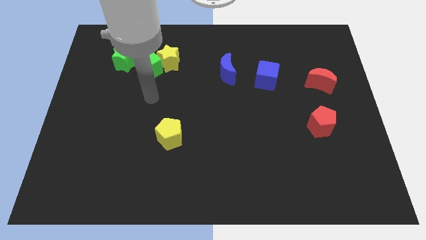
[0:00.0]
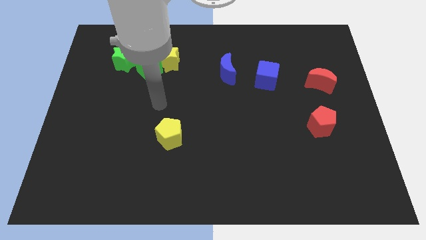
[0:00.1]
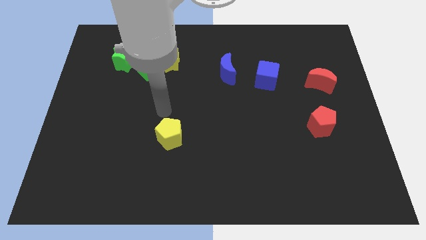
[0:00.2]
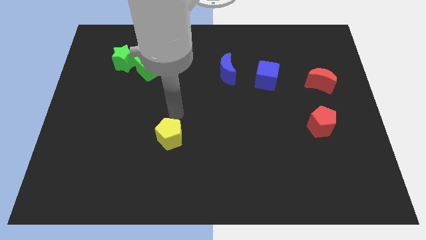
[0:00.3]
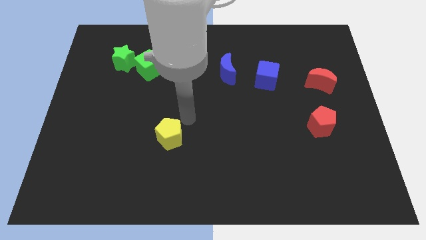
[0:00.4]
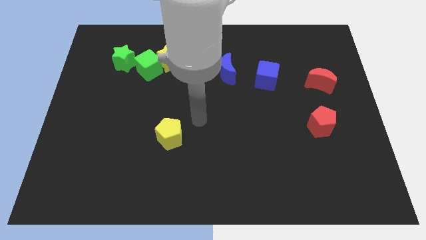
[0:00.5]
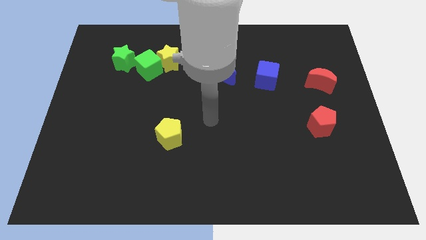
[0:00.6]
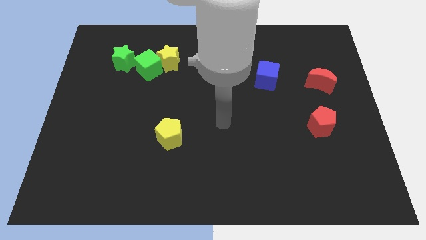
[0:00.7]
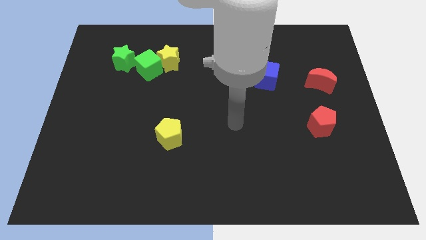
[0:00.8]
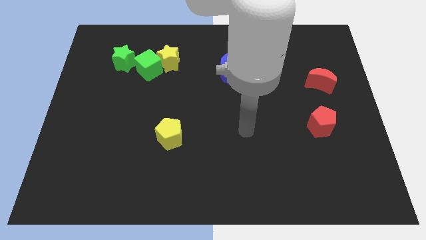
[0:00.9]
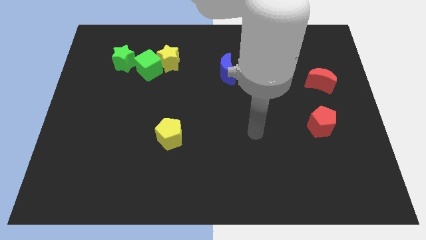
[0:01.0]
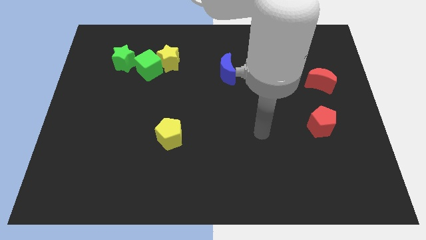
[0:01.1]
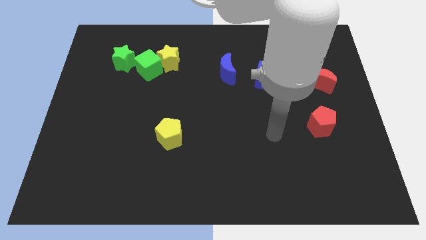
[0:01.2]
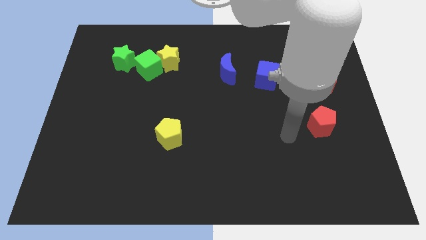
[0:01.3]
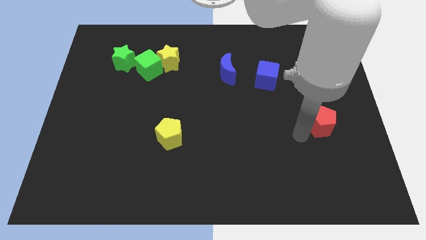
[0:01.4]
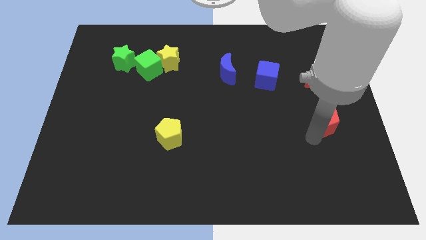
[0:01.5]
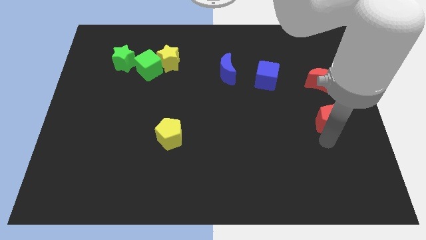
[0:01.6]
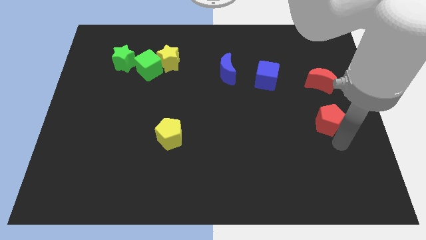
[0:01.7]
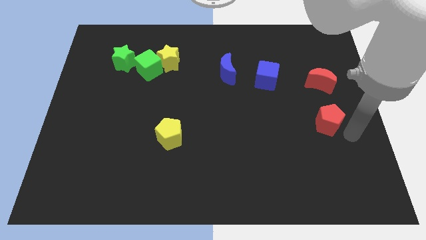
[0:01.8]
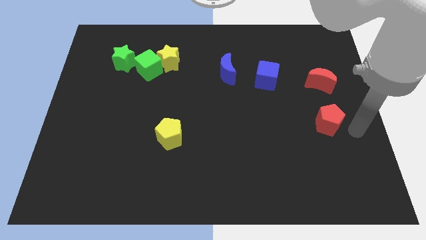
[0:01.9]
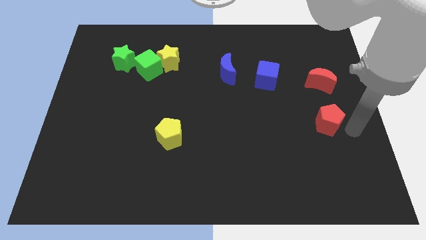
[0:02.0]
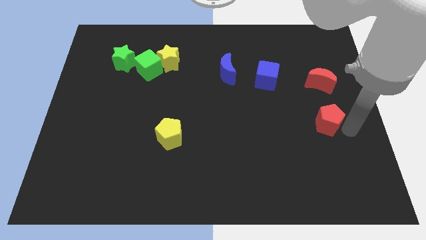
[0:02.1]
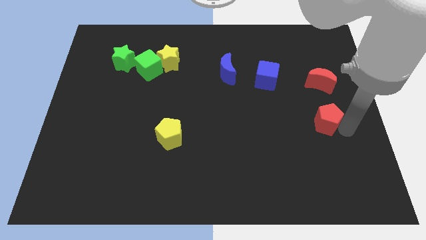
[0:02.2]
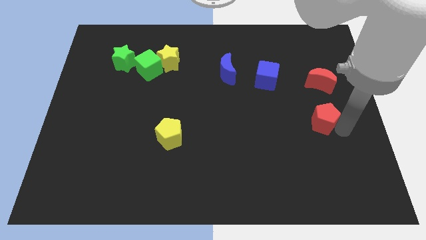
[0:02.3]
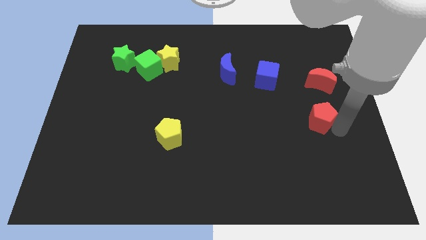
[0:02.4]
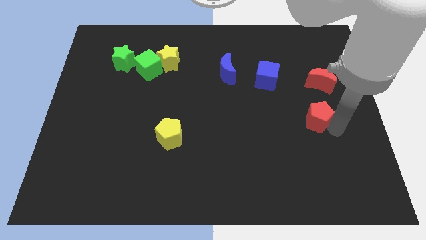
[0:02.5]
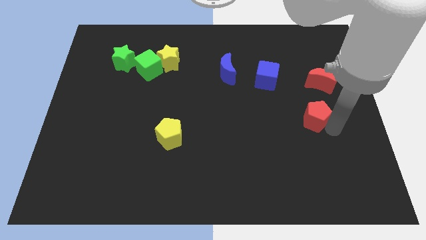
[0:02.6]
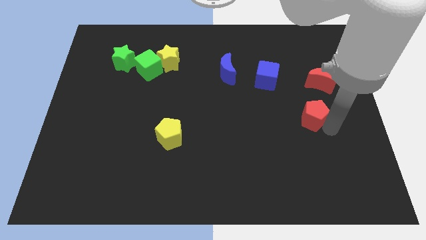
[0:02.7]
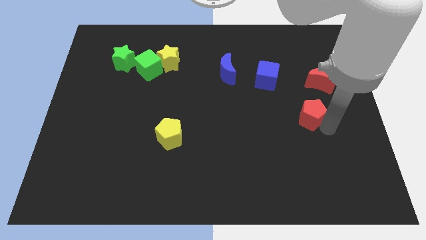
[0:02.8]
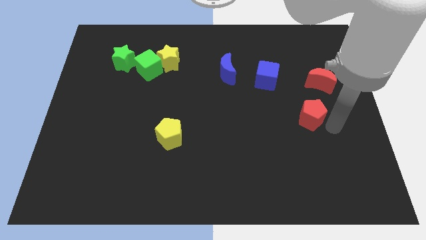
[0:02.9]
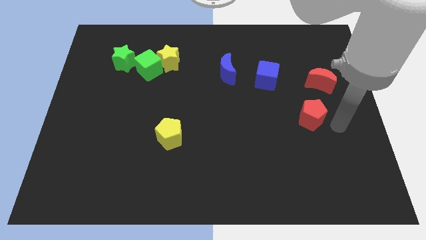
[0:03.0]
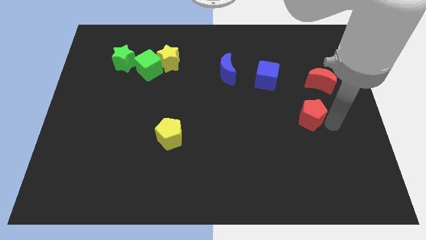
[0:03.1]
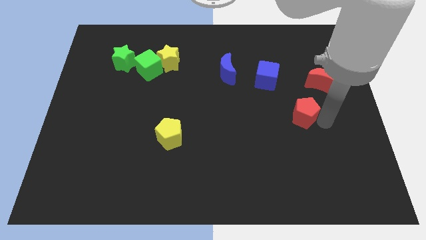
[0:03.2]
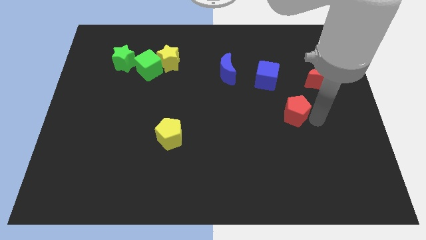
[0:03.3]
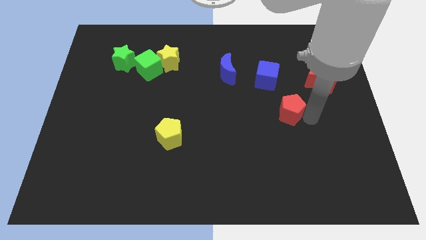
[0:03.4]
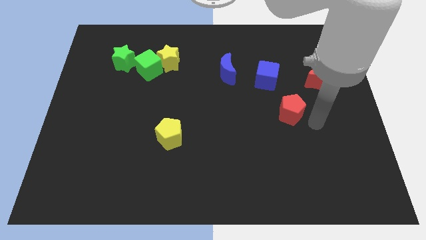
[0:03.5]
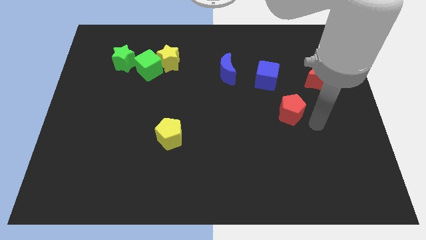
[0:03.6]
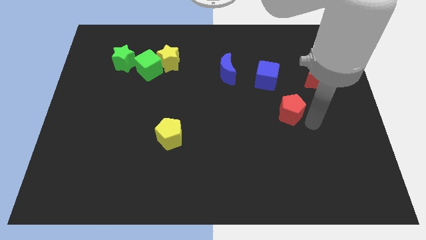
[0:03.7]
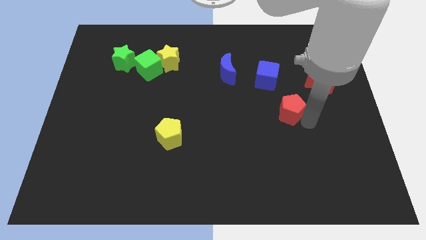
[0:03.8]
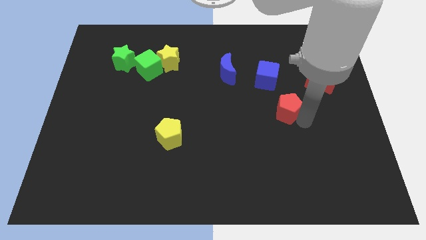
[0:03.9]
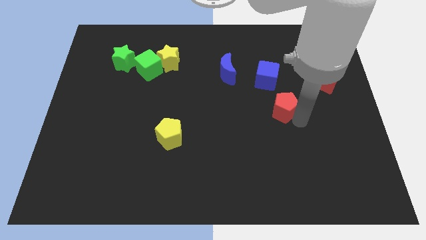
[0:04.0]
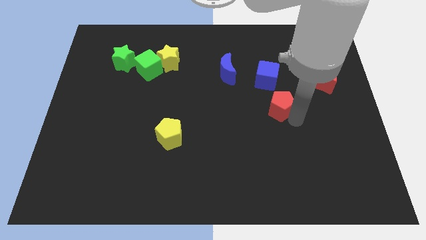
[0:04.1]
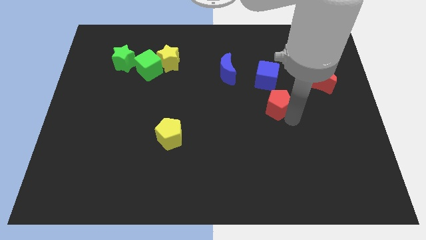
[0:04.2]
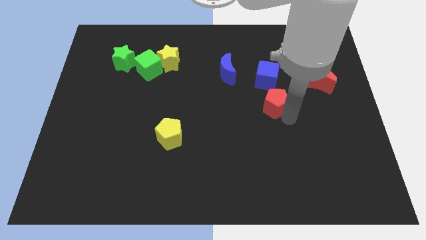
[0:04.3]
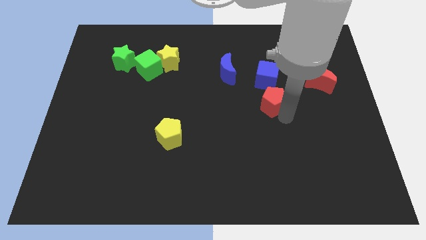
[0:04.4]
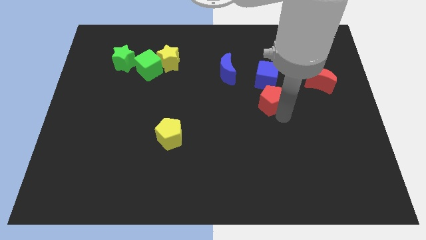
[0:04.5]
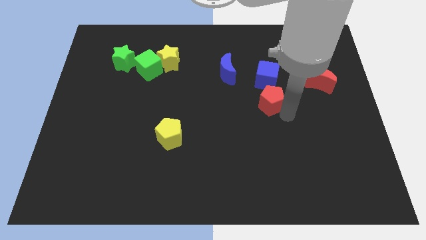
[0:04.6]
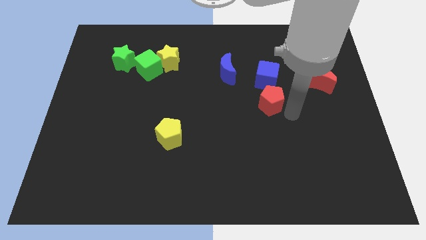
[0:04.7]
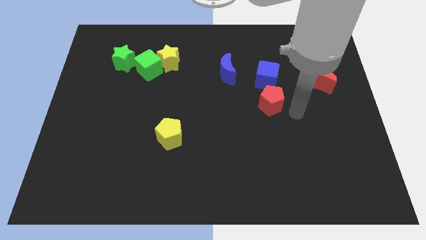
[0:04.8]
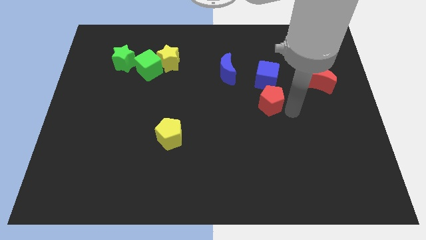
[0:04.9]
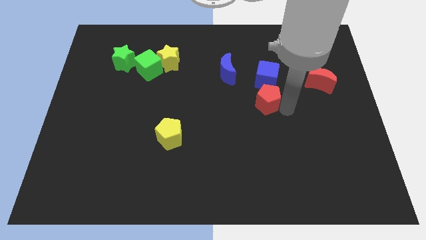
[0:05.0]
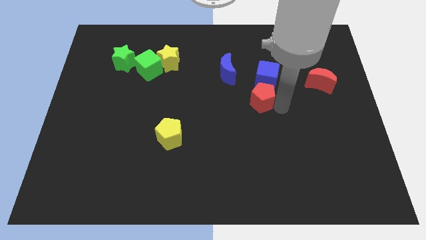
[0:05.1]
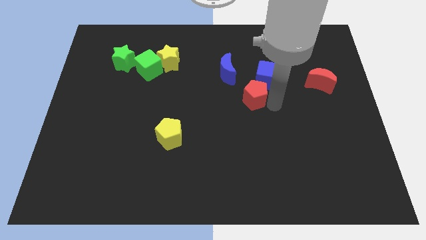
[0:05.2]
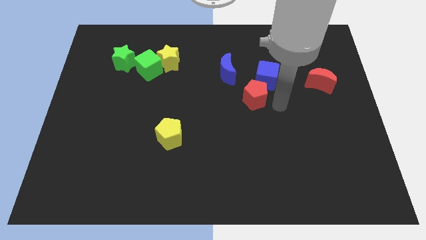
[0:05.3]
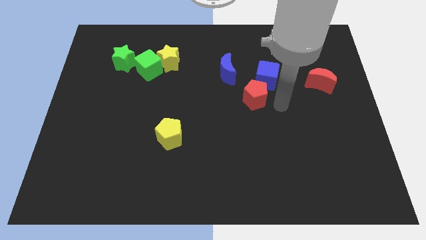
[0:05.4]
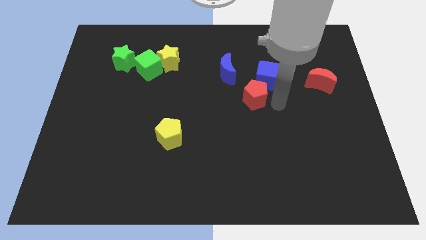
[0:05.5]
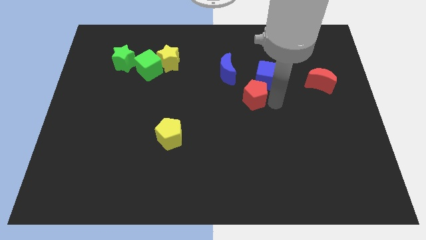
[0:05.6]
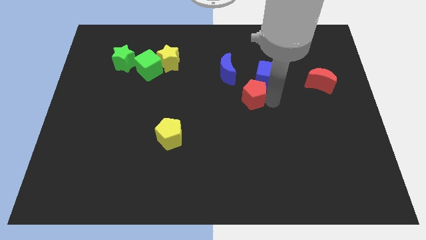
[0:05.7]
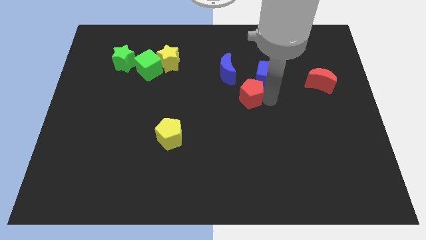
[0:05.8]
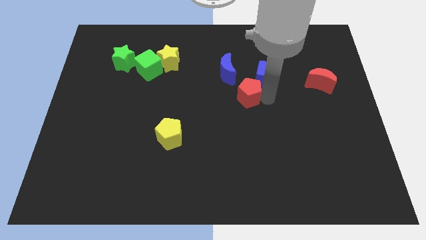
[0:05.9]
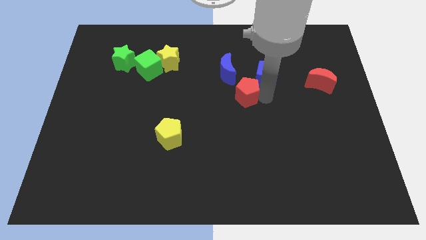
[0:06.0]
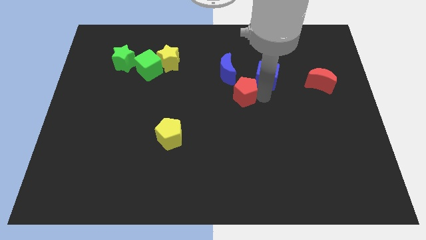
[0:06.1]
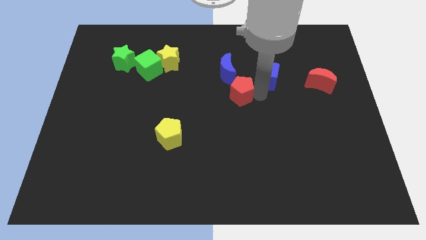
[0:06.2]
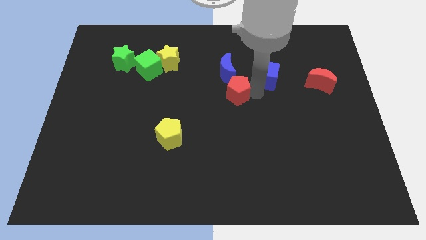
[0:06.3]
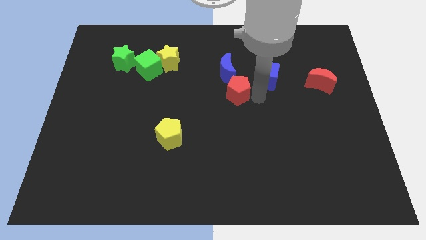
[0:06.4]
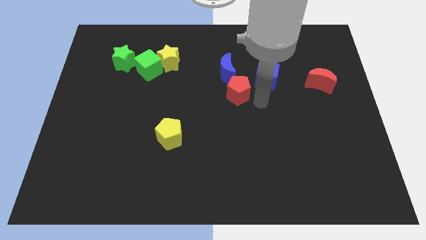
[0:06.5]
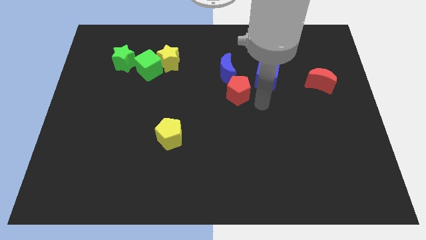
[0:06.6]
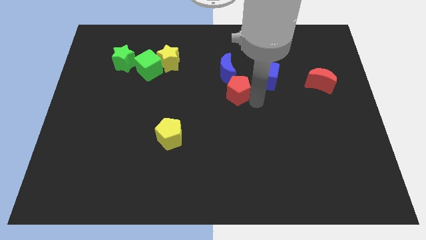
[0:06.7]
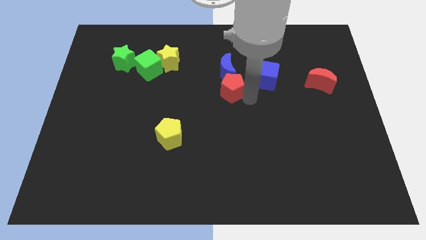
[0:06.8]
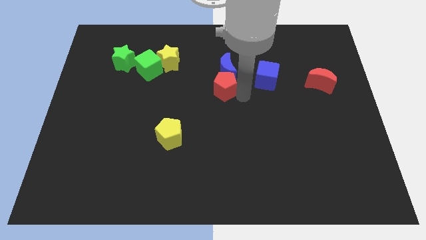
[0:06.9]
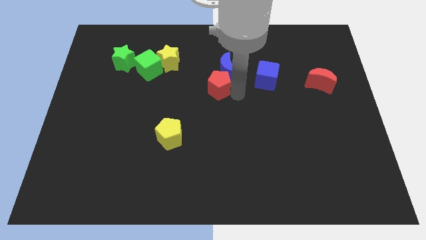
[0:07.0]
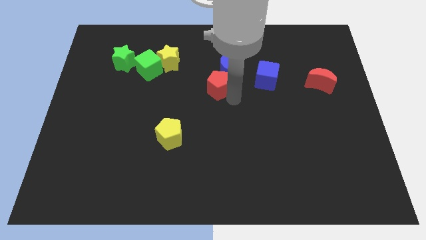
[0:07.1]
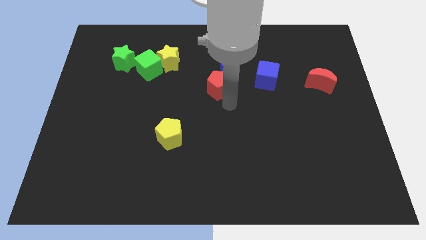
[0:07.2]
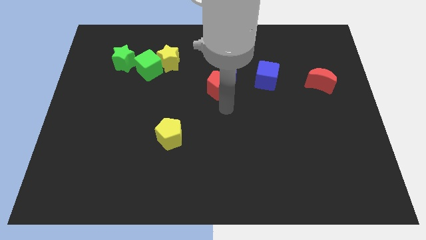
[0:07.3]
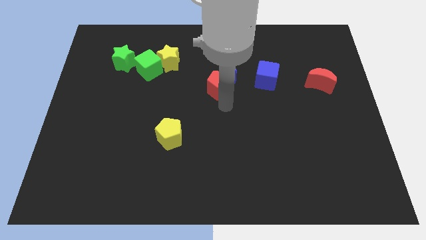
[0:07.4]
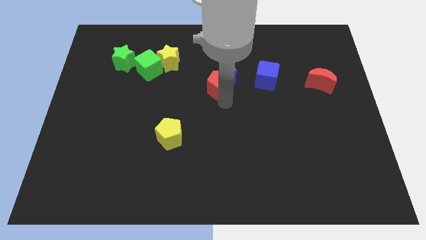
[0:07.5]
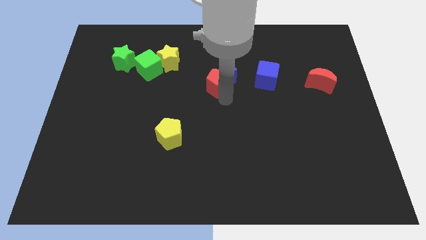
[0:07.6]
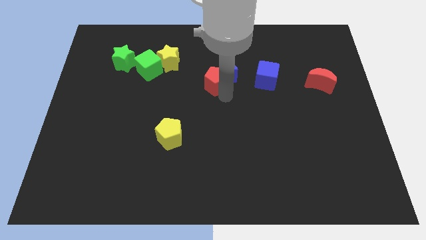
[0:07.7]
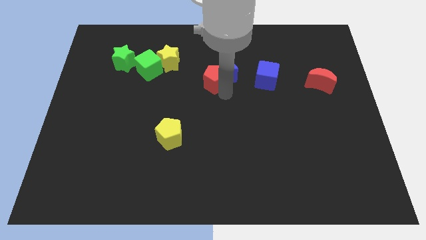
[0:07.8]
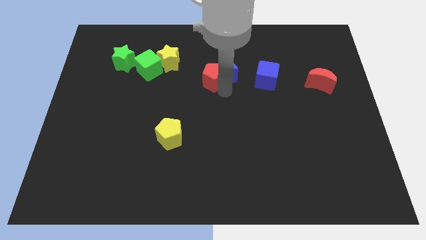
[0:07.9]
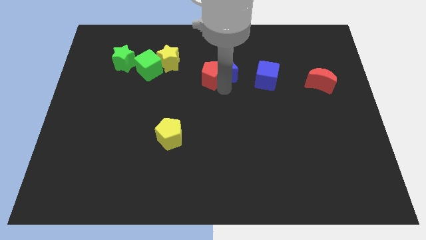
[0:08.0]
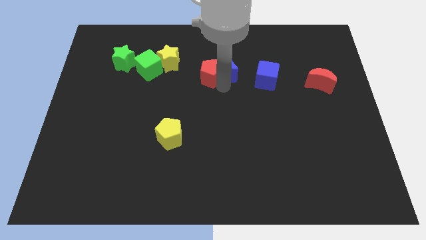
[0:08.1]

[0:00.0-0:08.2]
move the red pentagon to the right side of the yellow star
